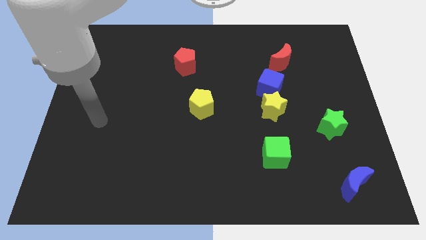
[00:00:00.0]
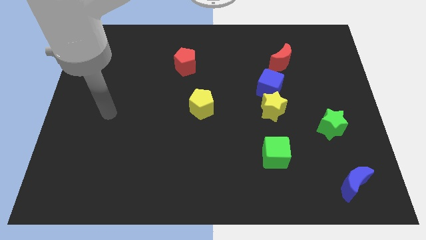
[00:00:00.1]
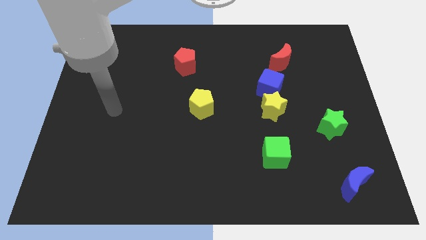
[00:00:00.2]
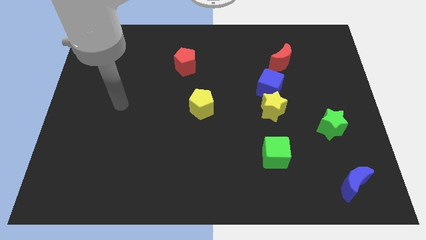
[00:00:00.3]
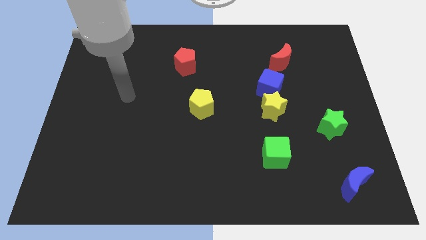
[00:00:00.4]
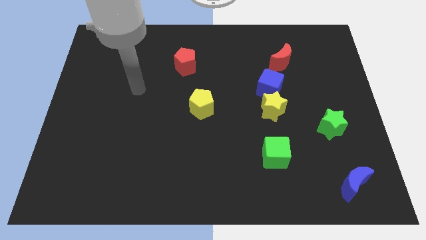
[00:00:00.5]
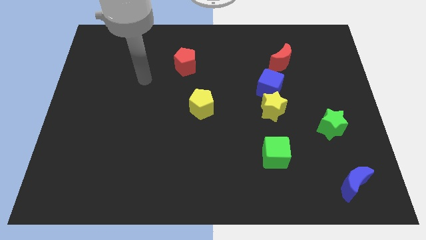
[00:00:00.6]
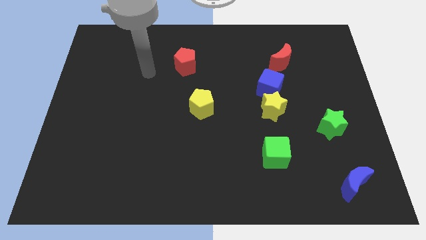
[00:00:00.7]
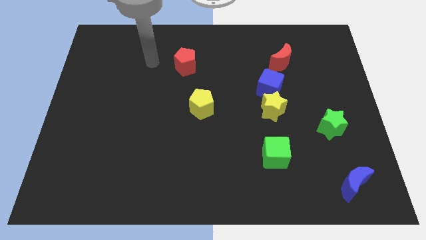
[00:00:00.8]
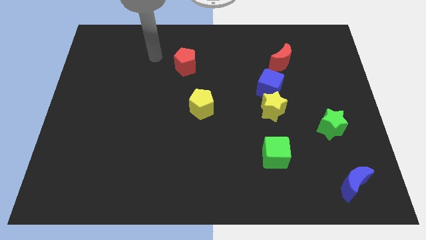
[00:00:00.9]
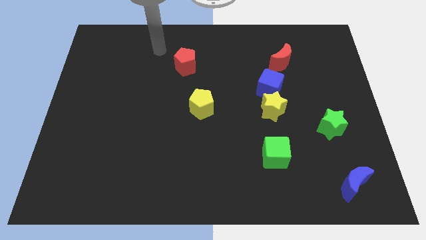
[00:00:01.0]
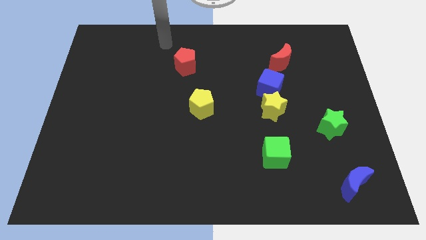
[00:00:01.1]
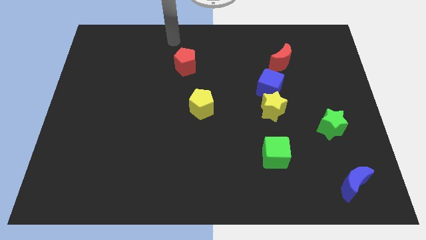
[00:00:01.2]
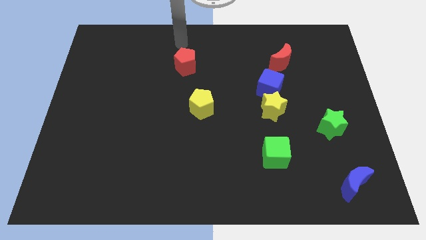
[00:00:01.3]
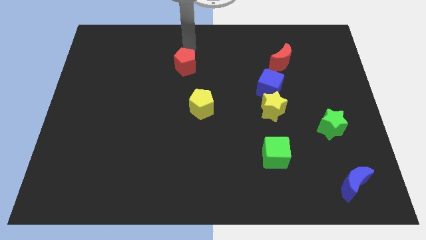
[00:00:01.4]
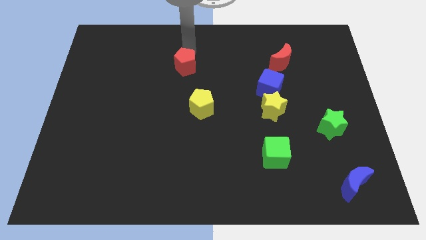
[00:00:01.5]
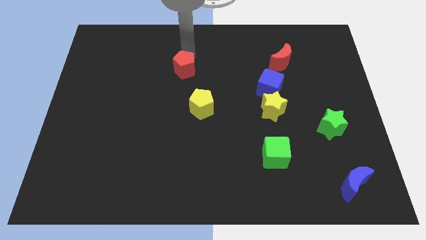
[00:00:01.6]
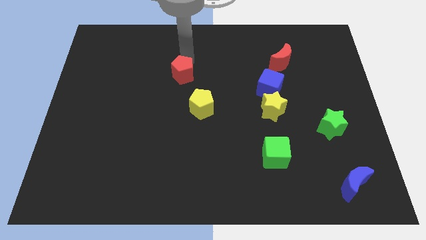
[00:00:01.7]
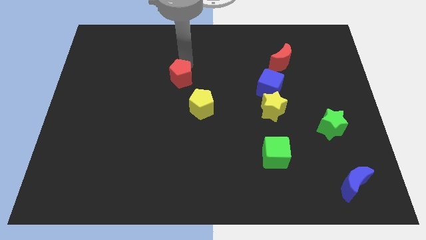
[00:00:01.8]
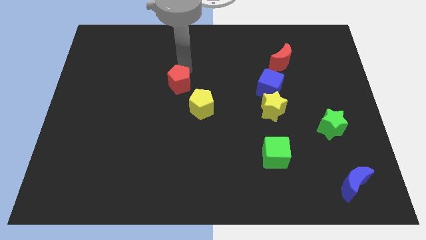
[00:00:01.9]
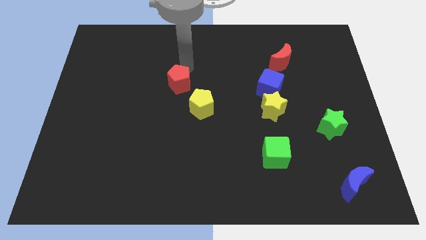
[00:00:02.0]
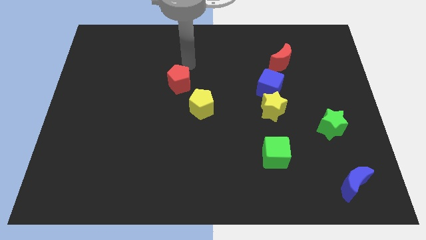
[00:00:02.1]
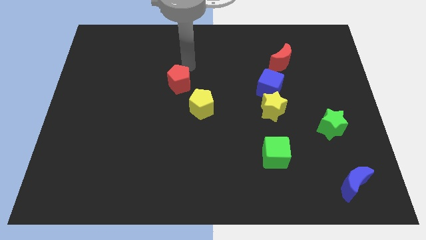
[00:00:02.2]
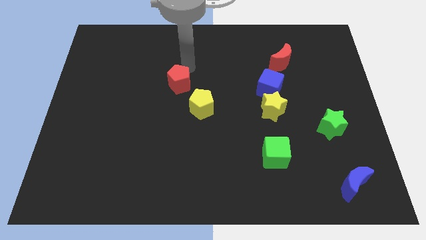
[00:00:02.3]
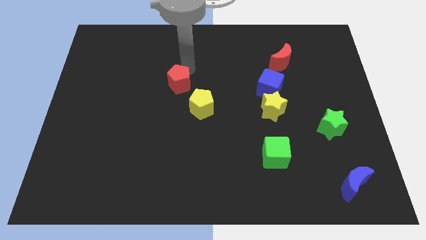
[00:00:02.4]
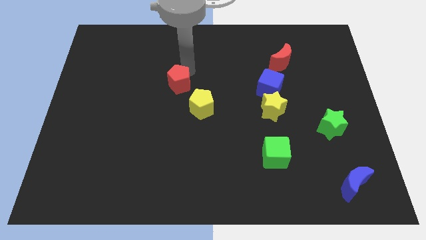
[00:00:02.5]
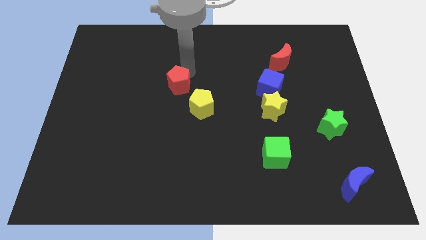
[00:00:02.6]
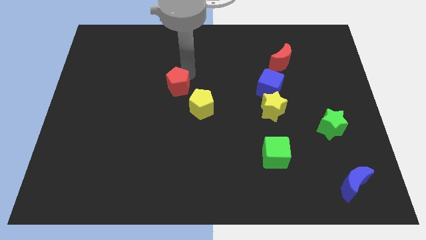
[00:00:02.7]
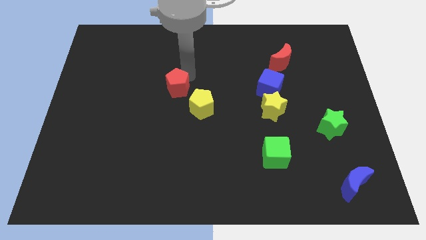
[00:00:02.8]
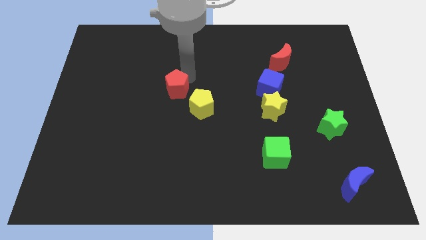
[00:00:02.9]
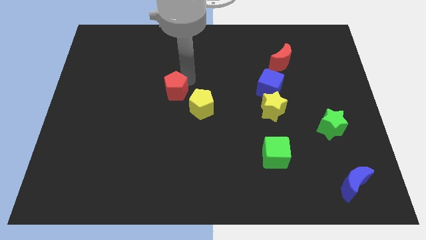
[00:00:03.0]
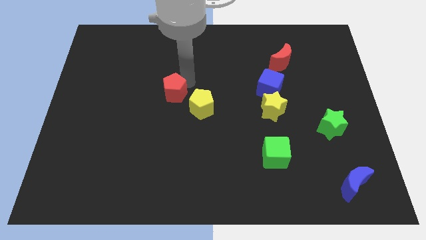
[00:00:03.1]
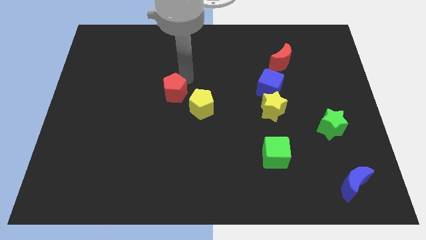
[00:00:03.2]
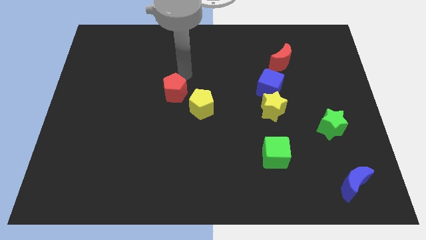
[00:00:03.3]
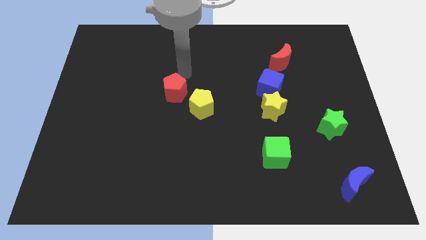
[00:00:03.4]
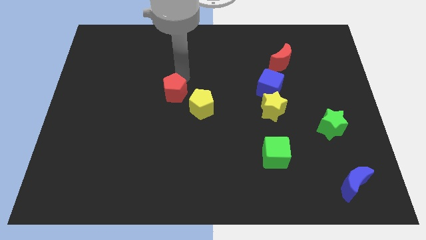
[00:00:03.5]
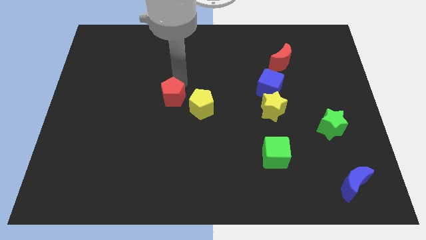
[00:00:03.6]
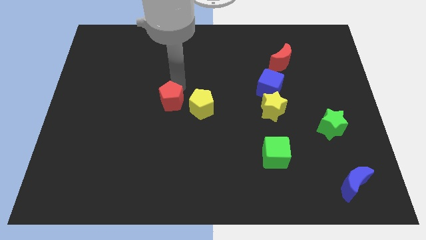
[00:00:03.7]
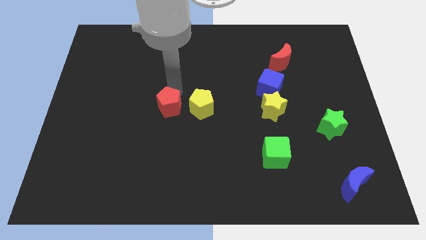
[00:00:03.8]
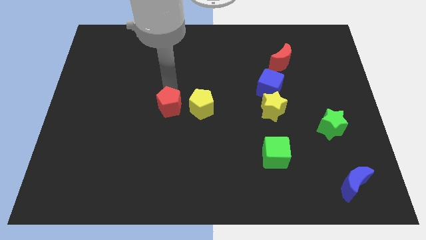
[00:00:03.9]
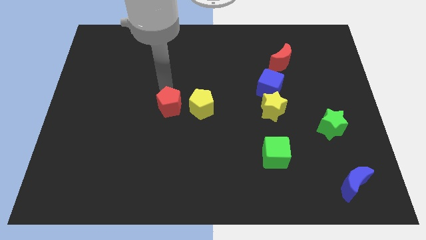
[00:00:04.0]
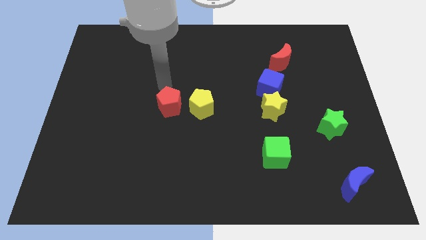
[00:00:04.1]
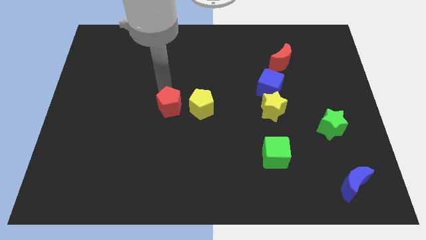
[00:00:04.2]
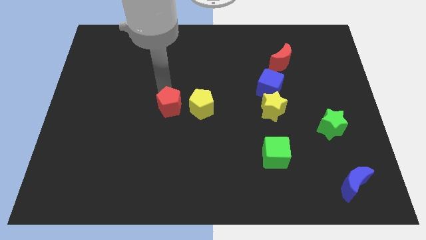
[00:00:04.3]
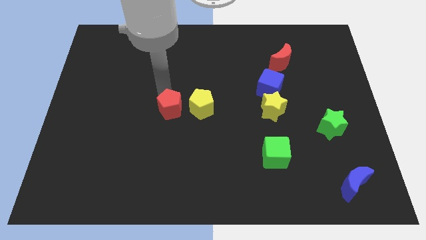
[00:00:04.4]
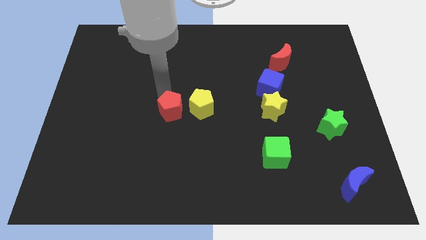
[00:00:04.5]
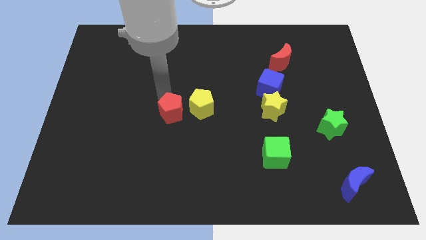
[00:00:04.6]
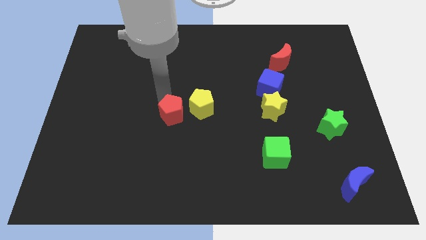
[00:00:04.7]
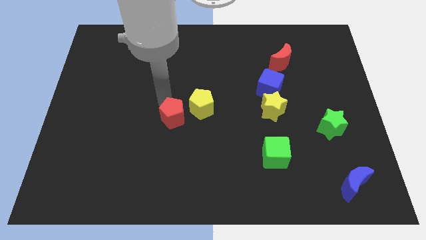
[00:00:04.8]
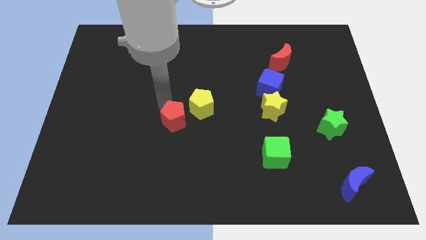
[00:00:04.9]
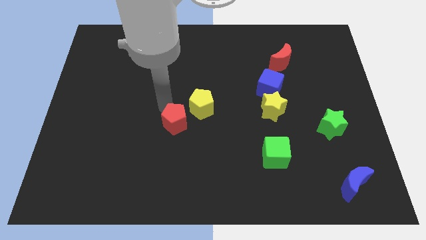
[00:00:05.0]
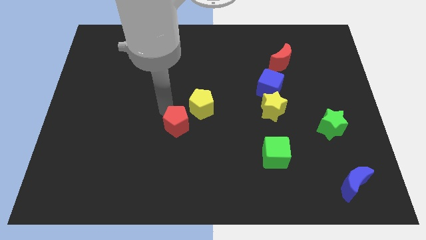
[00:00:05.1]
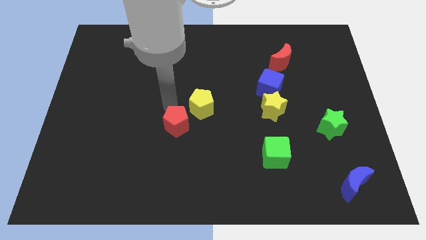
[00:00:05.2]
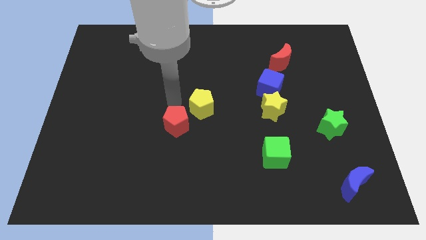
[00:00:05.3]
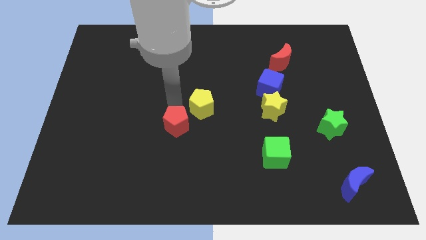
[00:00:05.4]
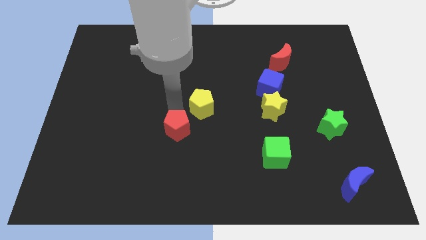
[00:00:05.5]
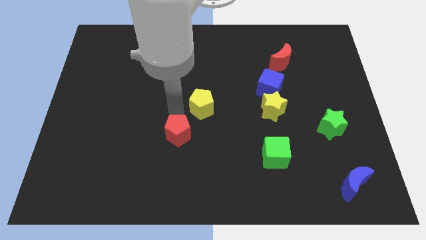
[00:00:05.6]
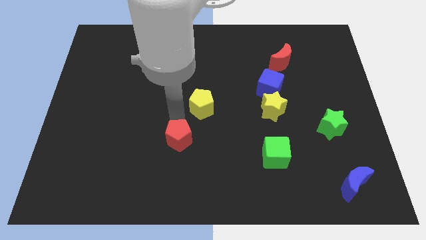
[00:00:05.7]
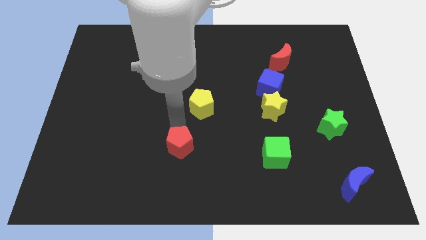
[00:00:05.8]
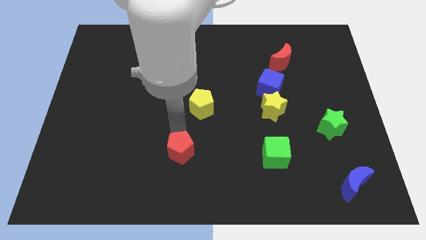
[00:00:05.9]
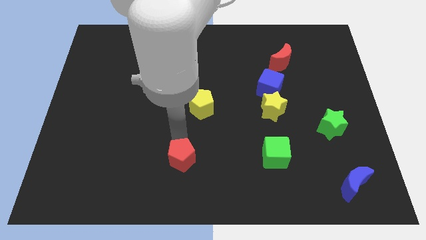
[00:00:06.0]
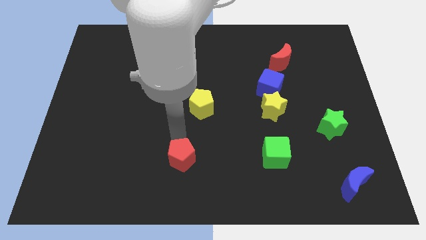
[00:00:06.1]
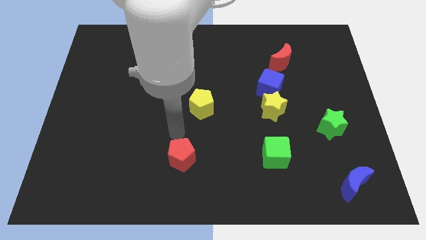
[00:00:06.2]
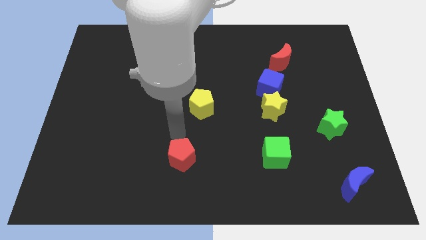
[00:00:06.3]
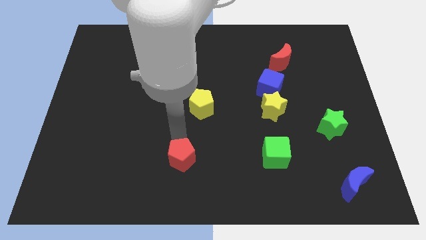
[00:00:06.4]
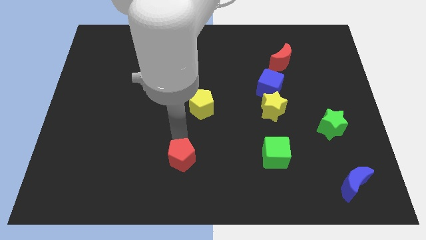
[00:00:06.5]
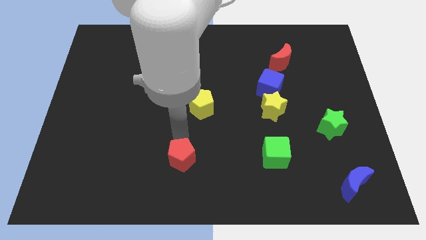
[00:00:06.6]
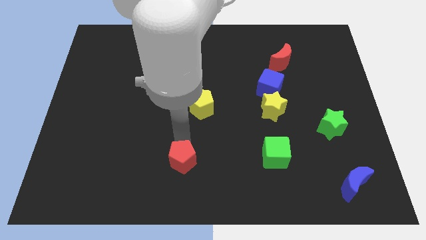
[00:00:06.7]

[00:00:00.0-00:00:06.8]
slide the red pentagon to the bottom
